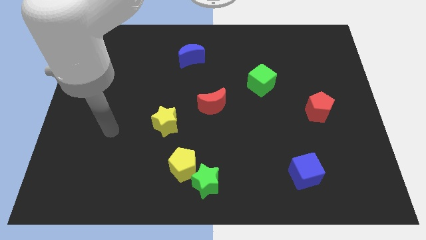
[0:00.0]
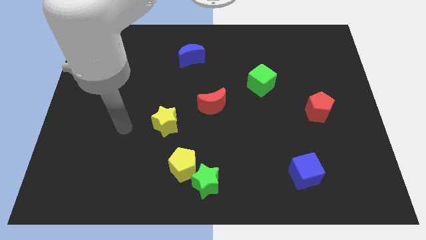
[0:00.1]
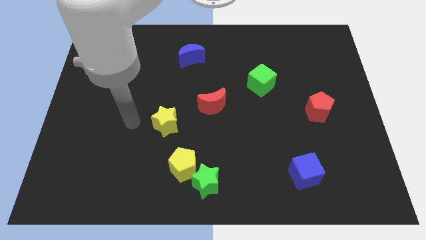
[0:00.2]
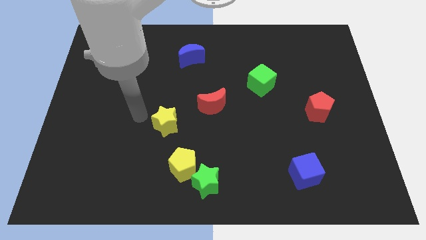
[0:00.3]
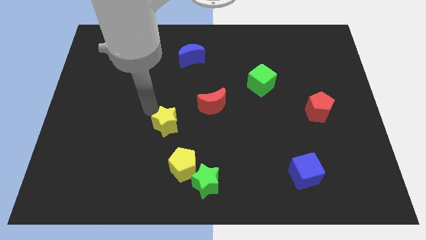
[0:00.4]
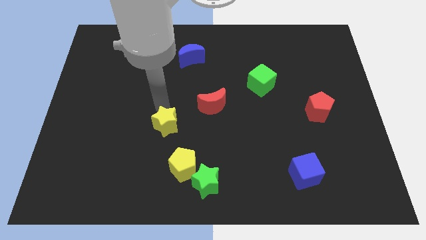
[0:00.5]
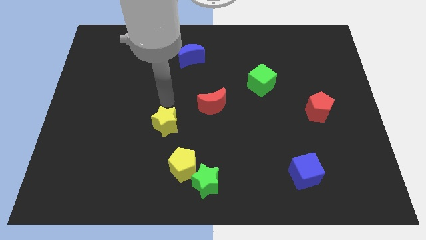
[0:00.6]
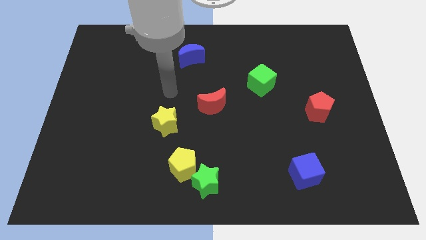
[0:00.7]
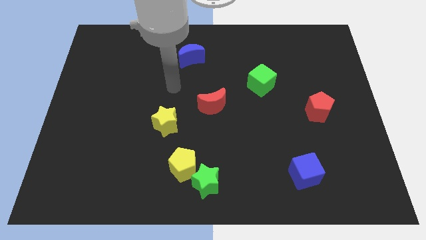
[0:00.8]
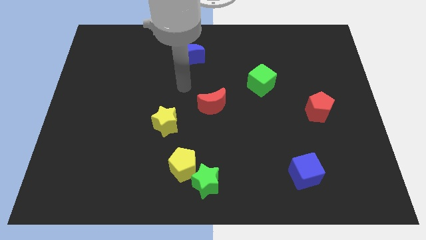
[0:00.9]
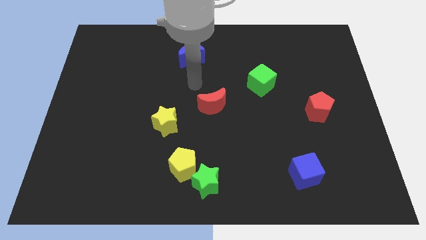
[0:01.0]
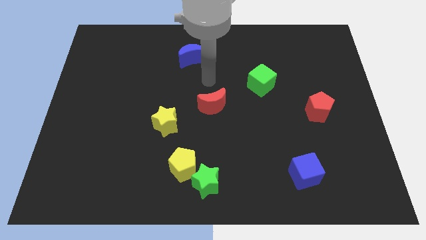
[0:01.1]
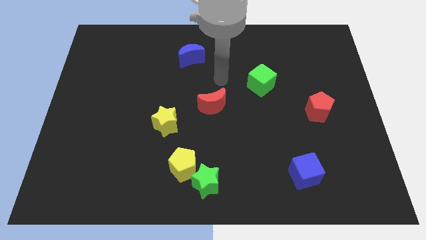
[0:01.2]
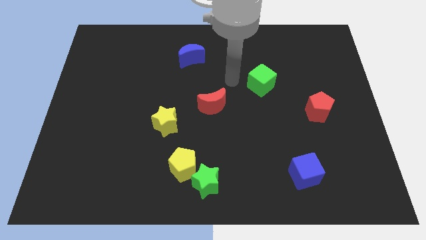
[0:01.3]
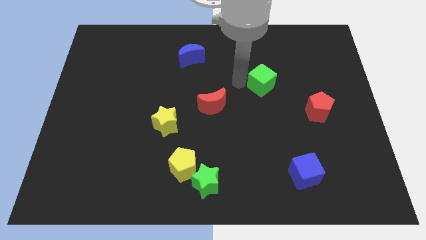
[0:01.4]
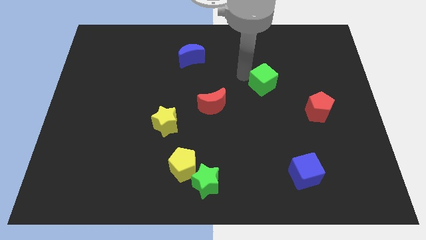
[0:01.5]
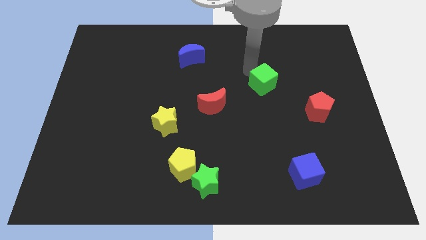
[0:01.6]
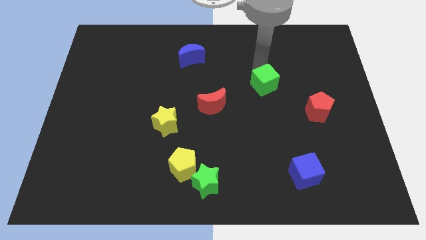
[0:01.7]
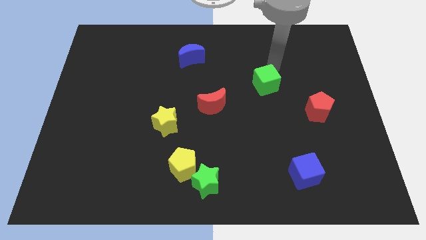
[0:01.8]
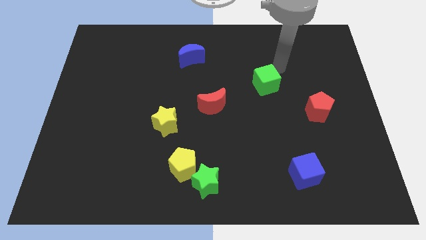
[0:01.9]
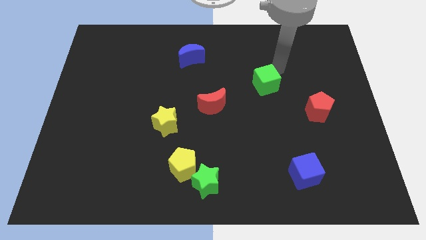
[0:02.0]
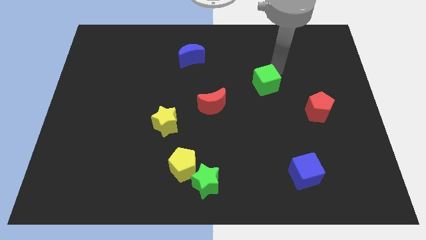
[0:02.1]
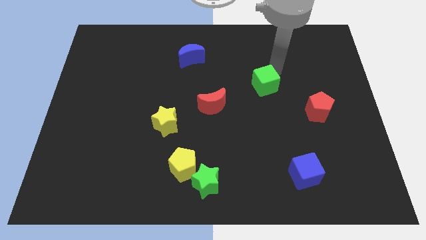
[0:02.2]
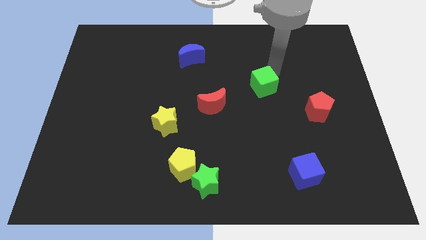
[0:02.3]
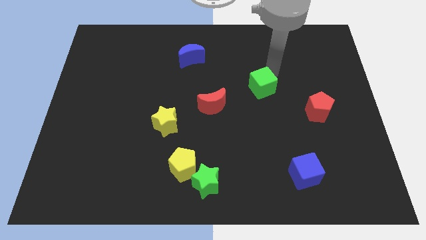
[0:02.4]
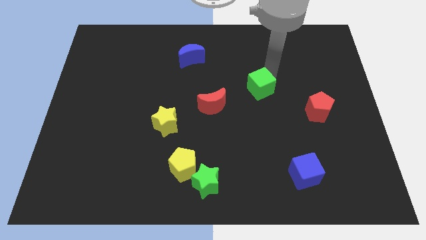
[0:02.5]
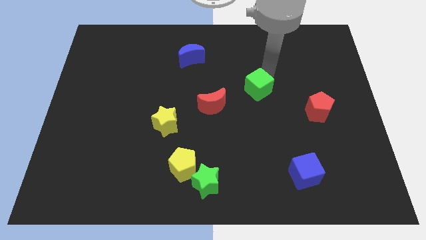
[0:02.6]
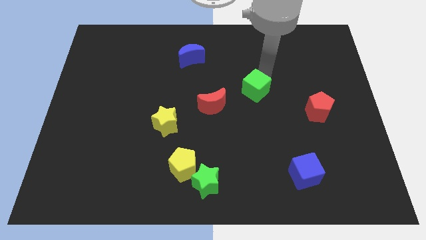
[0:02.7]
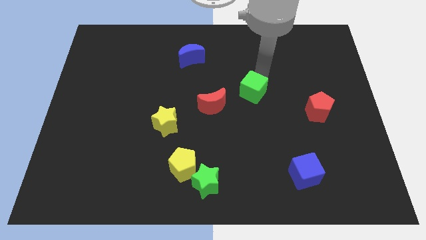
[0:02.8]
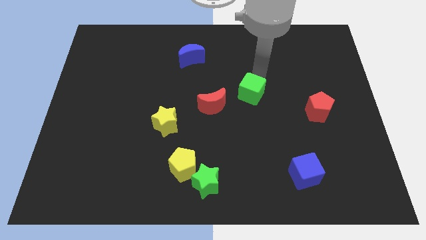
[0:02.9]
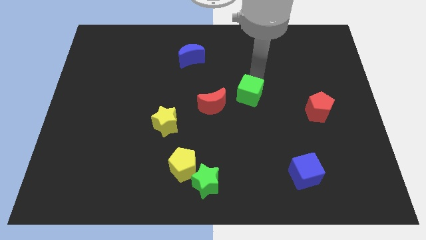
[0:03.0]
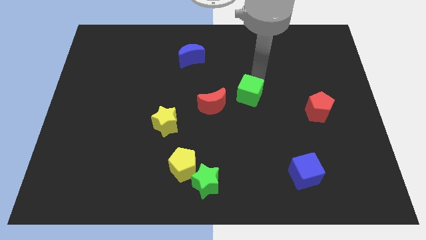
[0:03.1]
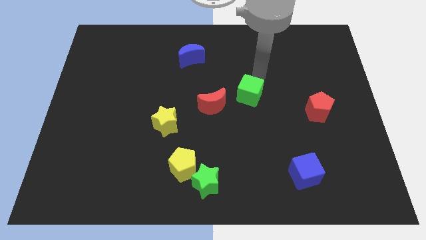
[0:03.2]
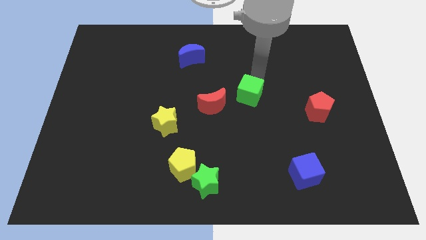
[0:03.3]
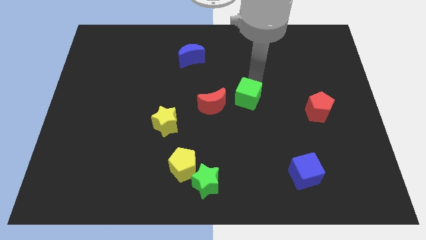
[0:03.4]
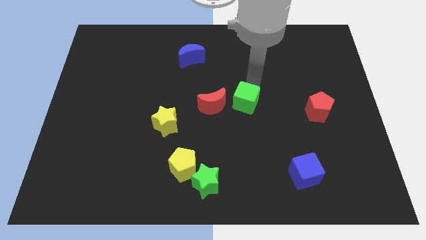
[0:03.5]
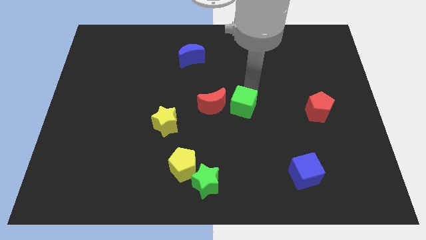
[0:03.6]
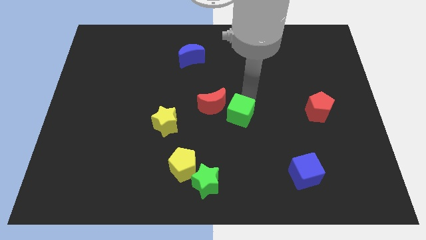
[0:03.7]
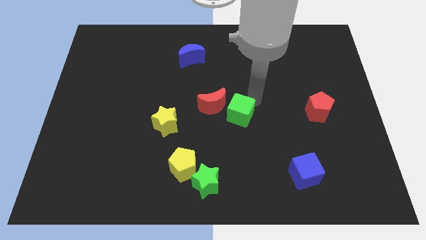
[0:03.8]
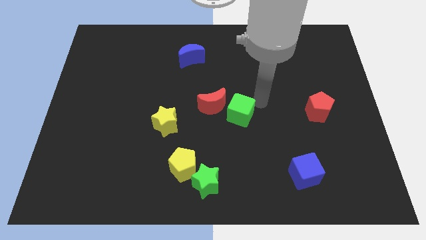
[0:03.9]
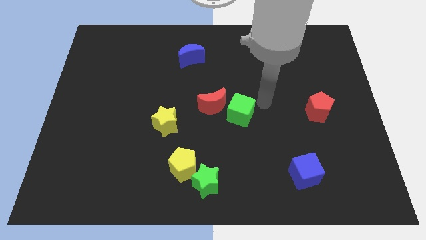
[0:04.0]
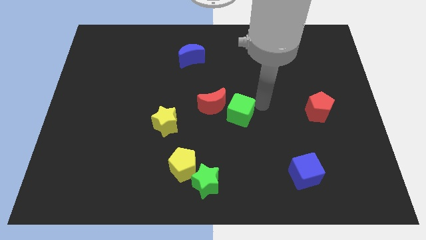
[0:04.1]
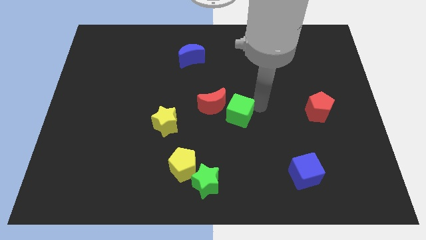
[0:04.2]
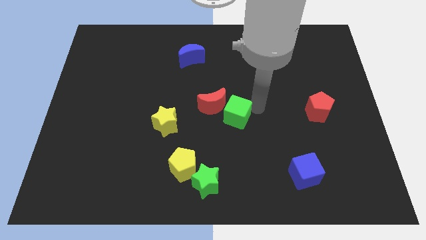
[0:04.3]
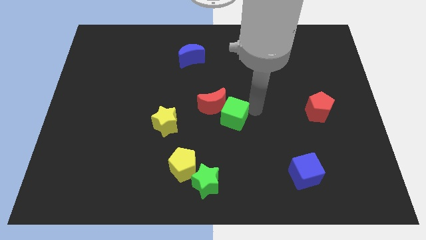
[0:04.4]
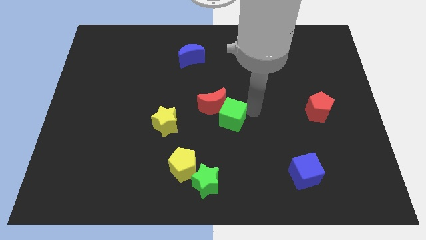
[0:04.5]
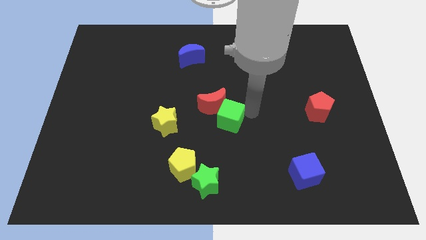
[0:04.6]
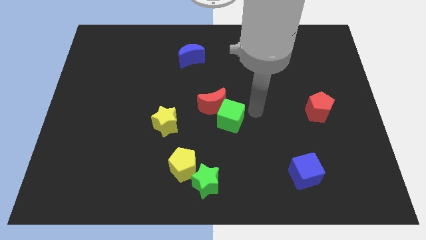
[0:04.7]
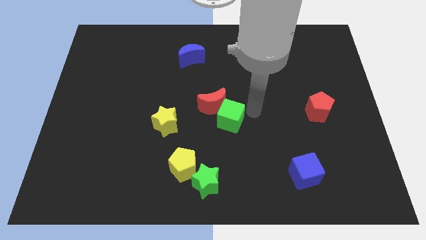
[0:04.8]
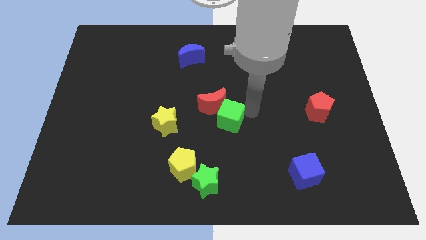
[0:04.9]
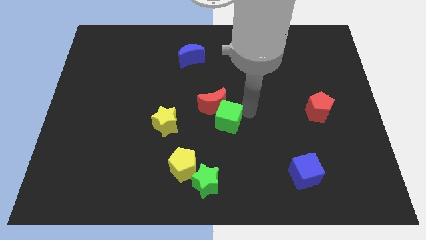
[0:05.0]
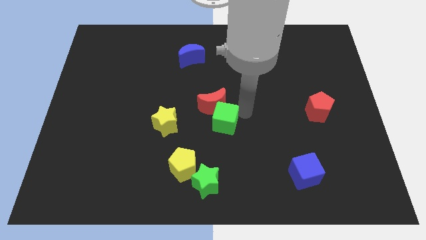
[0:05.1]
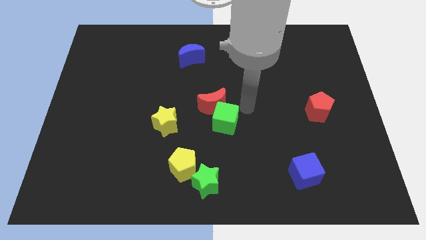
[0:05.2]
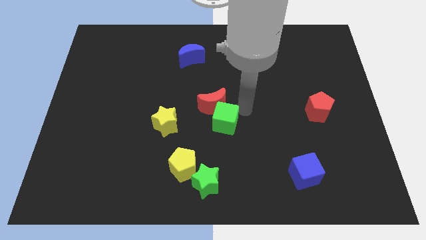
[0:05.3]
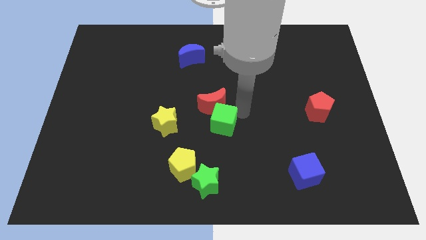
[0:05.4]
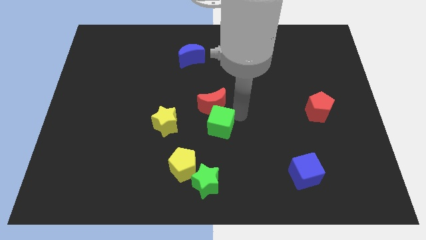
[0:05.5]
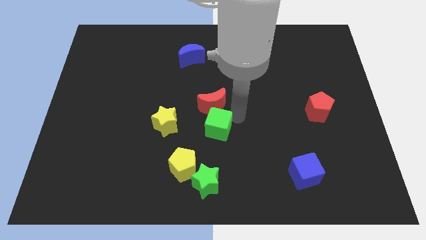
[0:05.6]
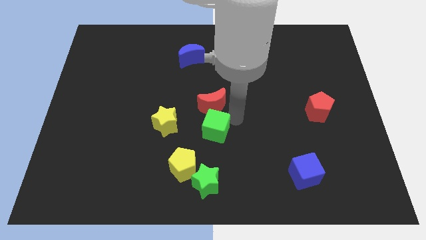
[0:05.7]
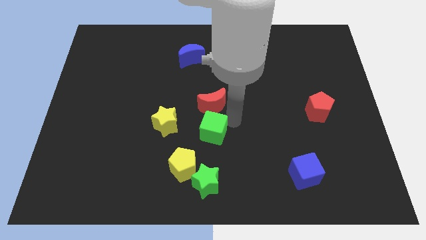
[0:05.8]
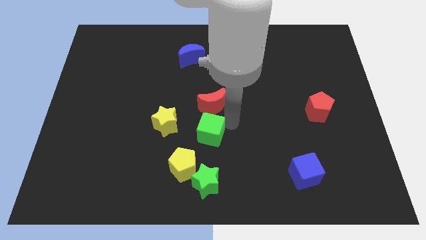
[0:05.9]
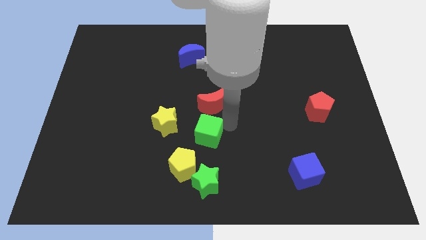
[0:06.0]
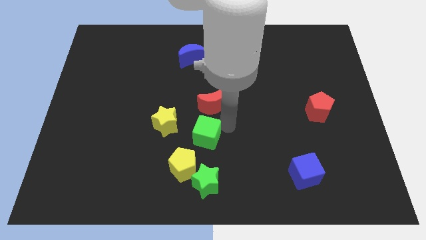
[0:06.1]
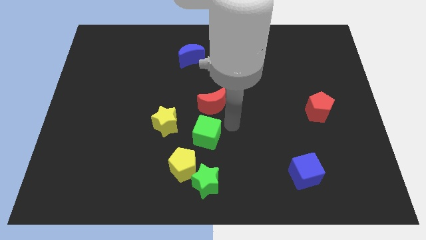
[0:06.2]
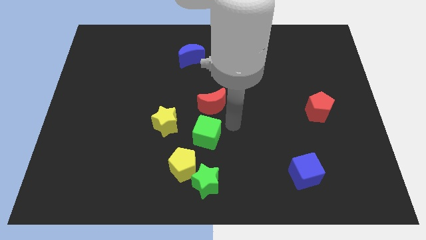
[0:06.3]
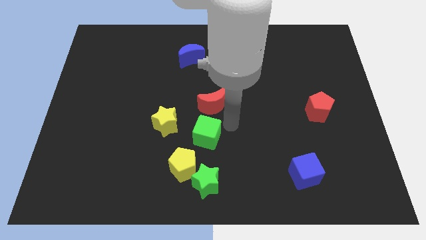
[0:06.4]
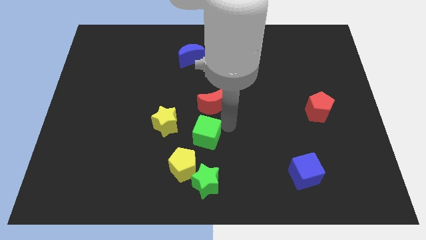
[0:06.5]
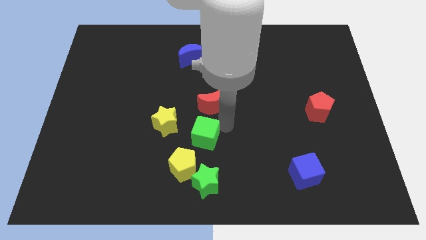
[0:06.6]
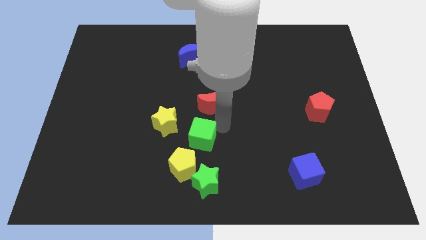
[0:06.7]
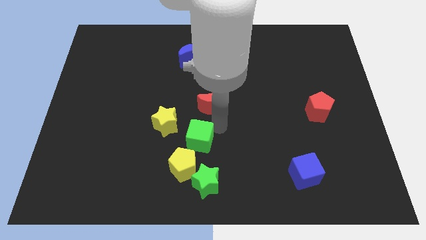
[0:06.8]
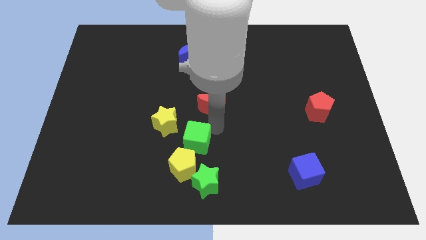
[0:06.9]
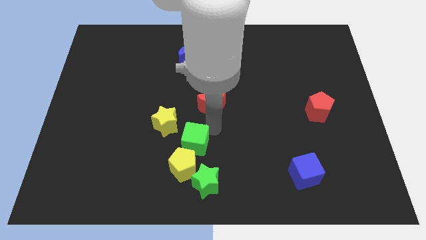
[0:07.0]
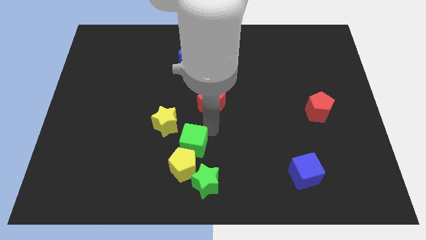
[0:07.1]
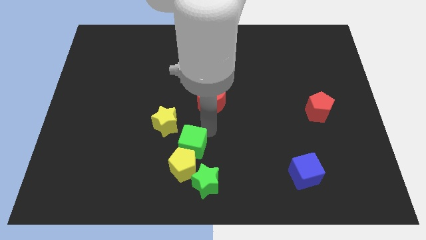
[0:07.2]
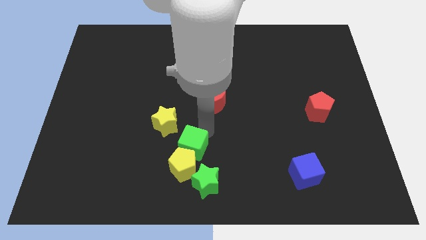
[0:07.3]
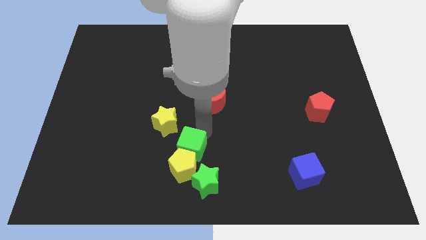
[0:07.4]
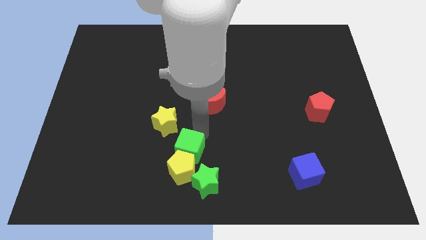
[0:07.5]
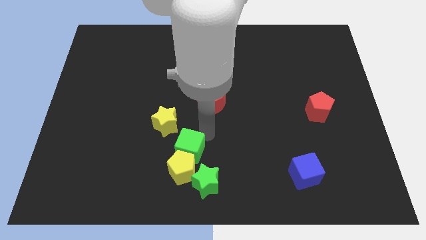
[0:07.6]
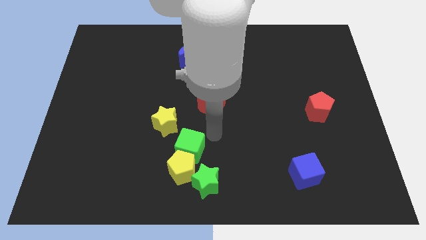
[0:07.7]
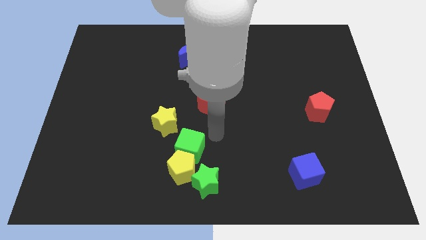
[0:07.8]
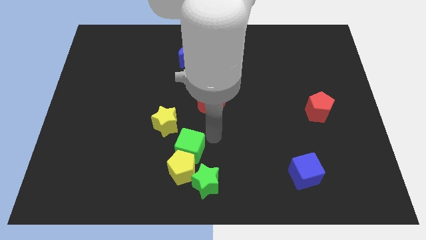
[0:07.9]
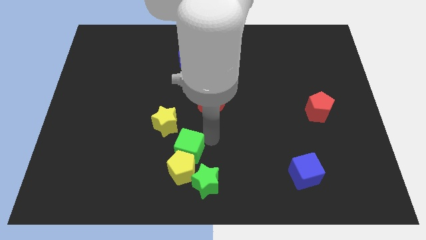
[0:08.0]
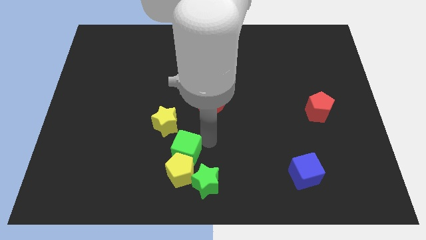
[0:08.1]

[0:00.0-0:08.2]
move the green cube to the bottom of the yellow star
